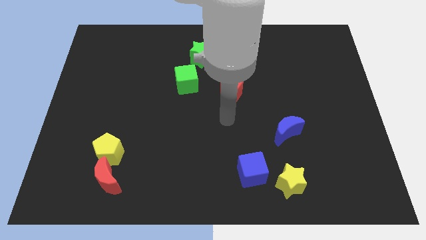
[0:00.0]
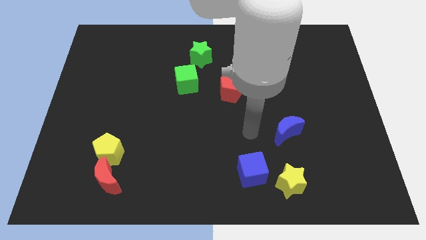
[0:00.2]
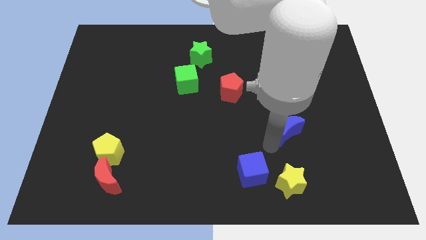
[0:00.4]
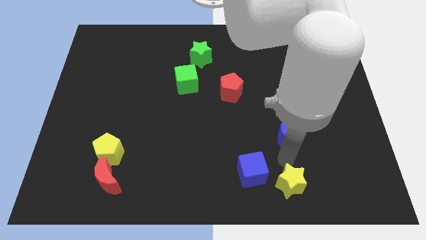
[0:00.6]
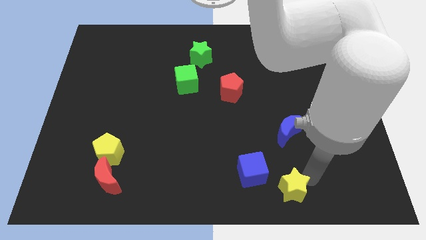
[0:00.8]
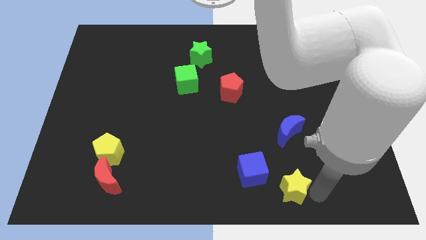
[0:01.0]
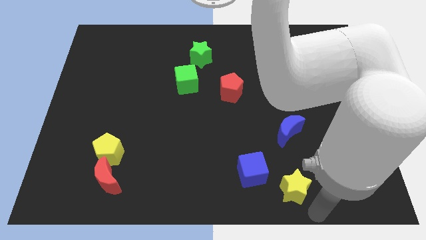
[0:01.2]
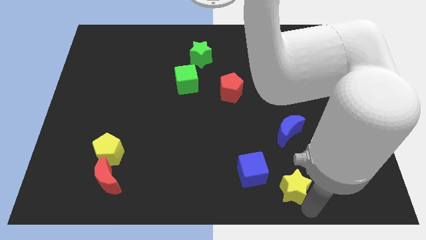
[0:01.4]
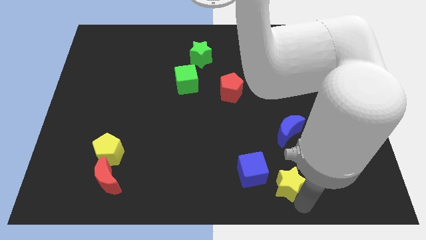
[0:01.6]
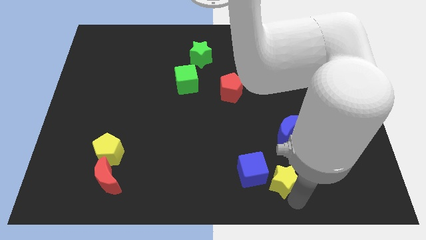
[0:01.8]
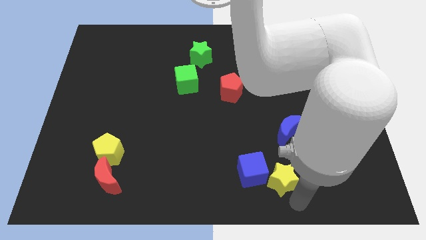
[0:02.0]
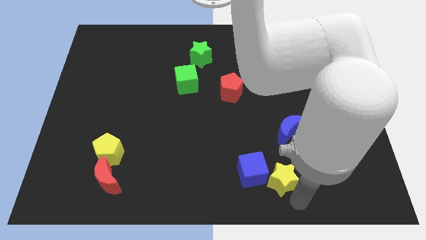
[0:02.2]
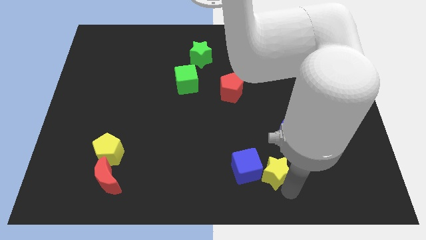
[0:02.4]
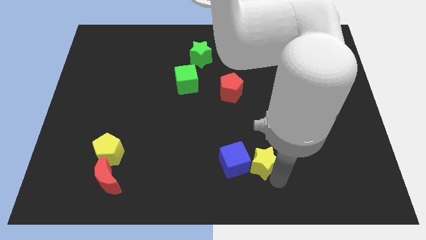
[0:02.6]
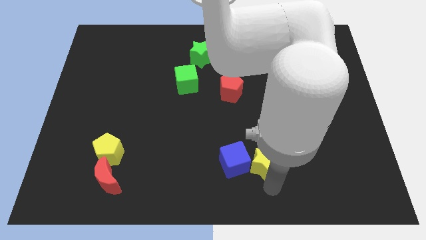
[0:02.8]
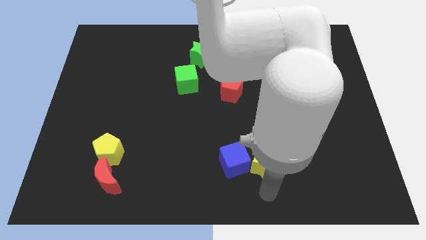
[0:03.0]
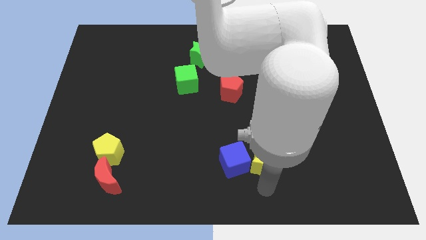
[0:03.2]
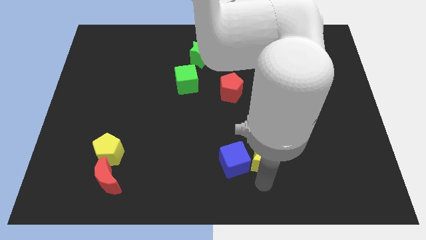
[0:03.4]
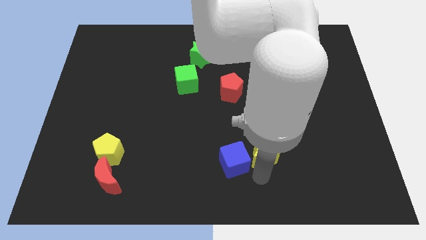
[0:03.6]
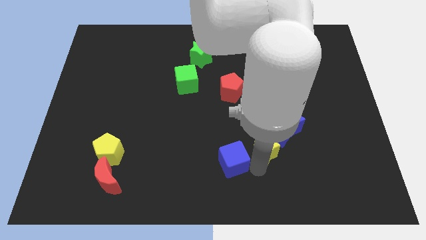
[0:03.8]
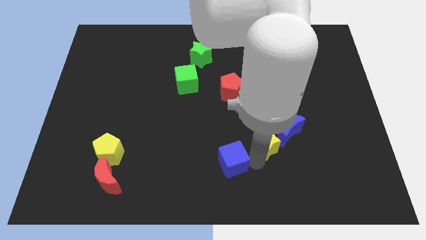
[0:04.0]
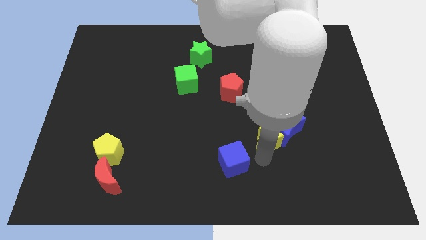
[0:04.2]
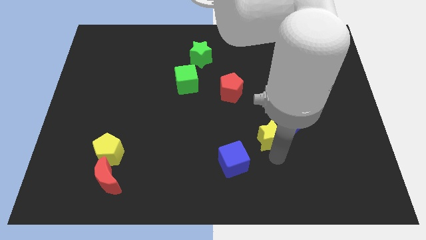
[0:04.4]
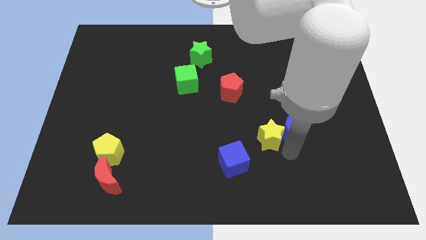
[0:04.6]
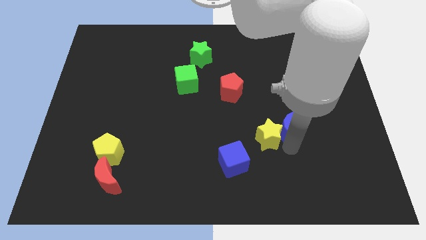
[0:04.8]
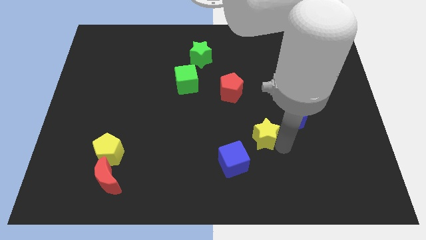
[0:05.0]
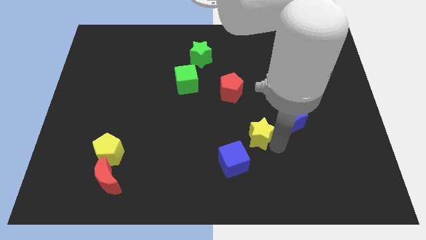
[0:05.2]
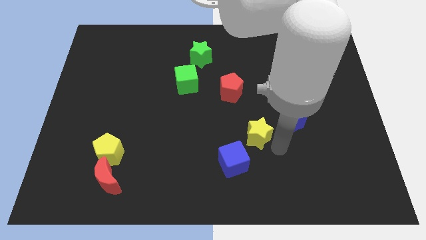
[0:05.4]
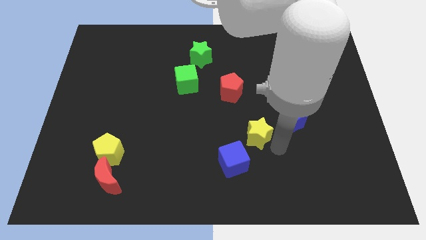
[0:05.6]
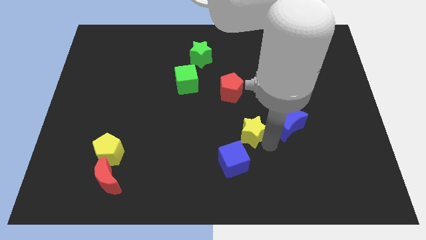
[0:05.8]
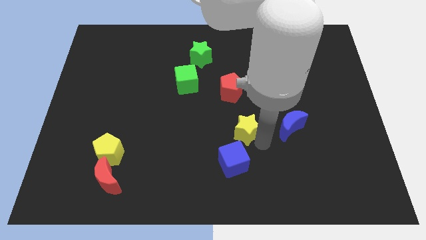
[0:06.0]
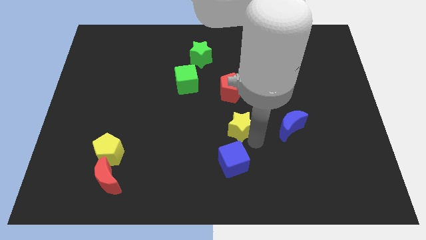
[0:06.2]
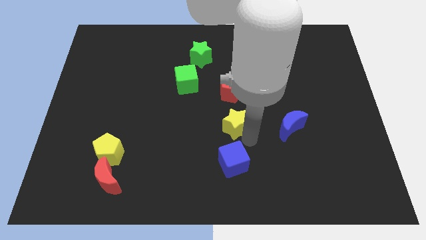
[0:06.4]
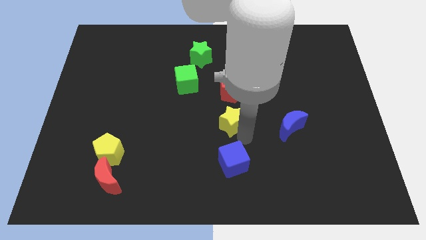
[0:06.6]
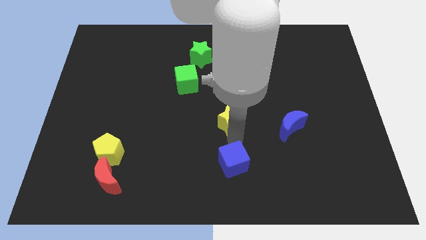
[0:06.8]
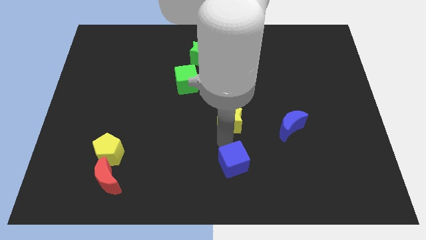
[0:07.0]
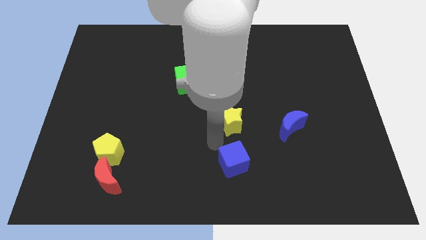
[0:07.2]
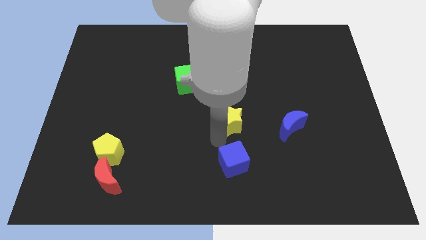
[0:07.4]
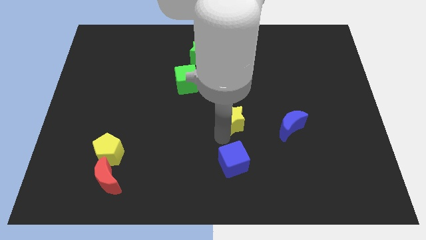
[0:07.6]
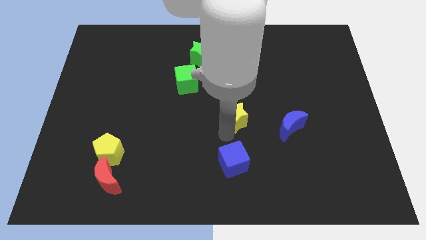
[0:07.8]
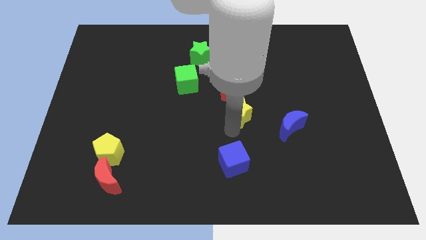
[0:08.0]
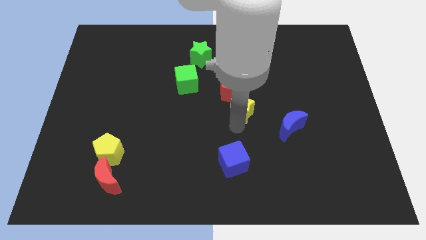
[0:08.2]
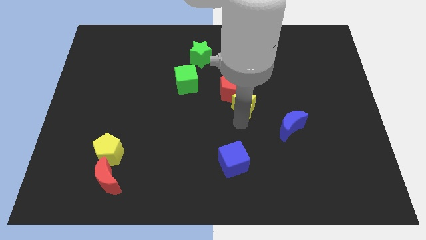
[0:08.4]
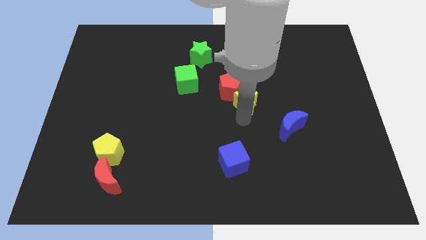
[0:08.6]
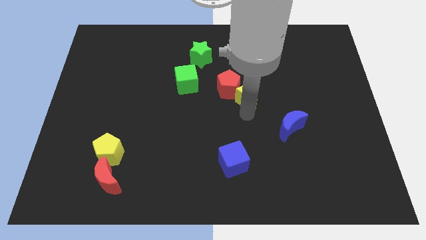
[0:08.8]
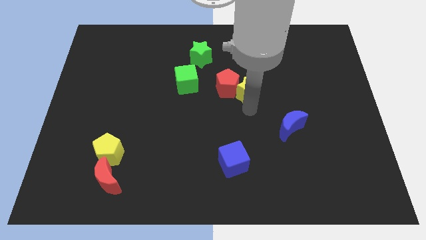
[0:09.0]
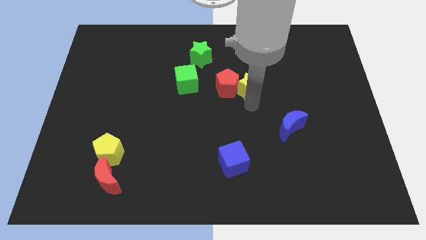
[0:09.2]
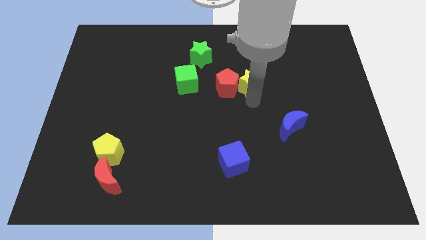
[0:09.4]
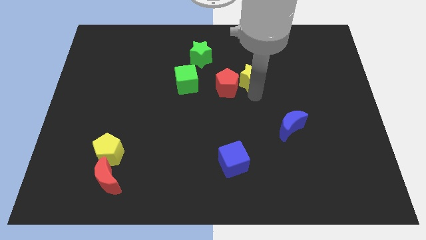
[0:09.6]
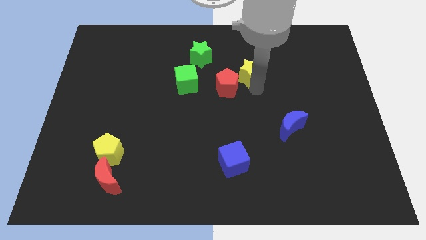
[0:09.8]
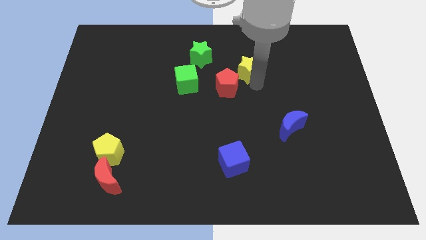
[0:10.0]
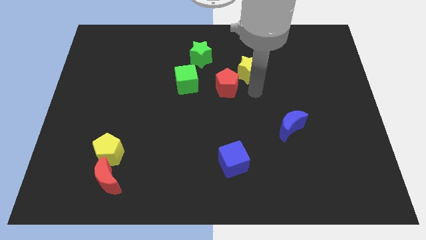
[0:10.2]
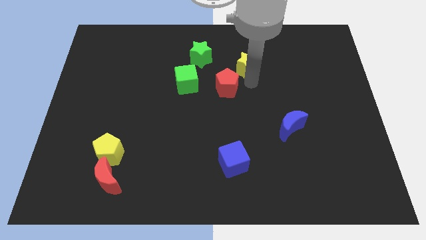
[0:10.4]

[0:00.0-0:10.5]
put the yellow star to the right of the green star

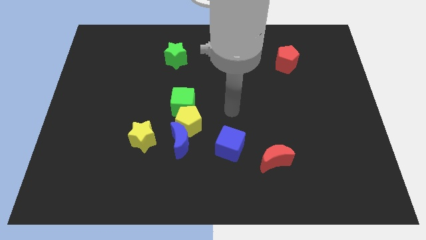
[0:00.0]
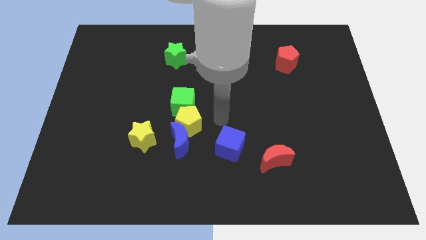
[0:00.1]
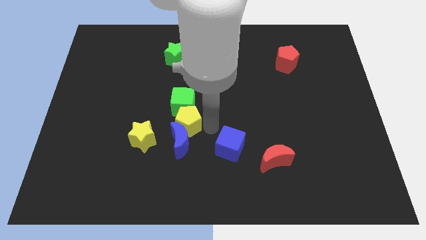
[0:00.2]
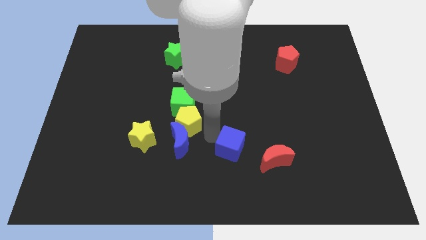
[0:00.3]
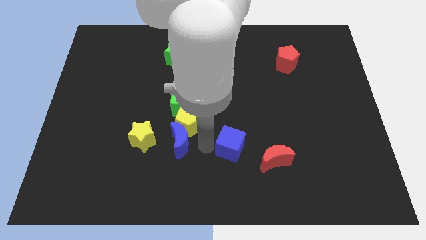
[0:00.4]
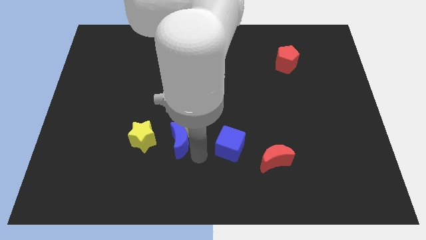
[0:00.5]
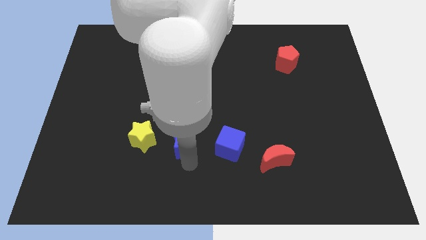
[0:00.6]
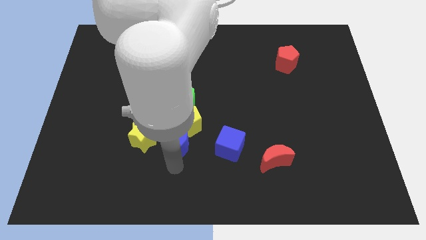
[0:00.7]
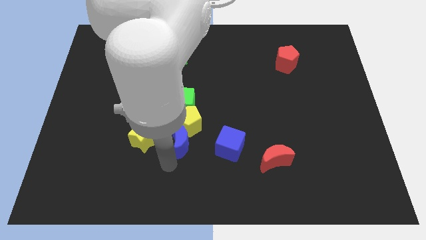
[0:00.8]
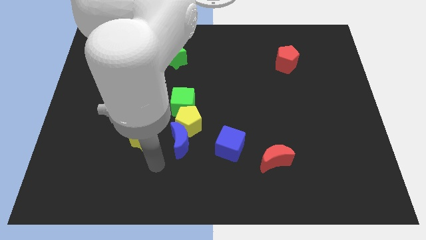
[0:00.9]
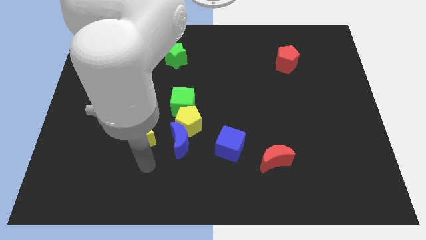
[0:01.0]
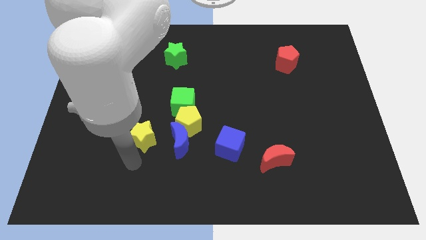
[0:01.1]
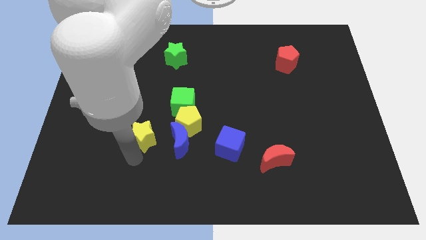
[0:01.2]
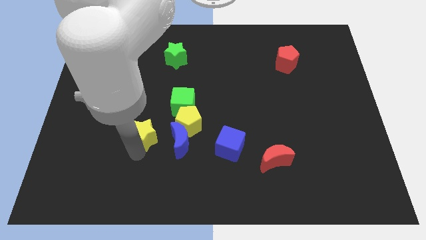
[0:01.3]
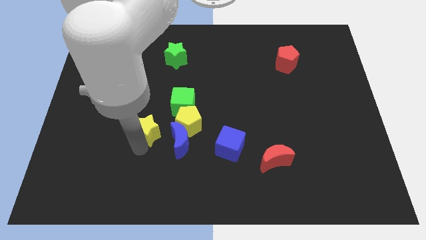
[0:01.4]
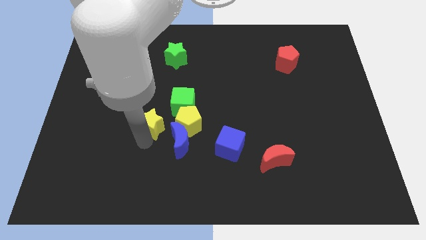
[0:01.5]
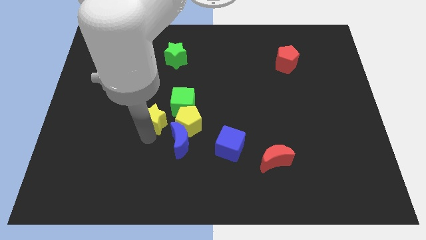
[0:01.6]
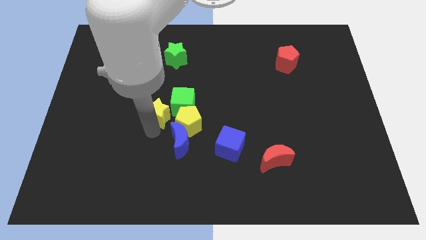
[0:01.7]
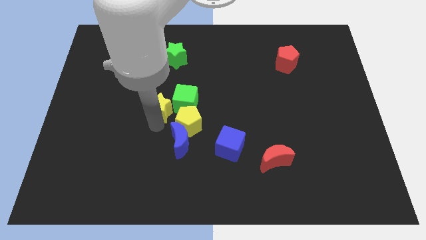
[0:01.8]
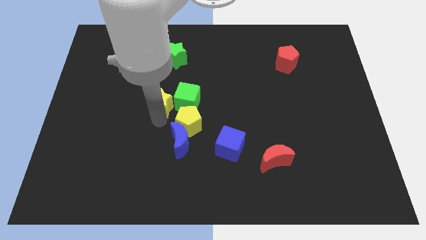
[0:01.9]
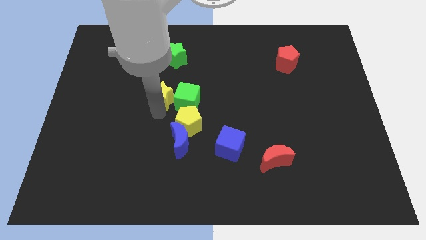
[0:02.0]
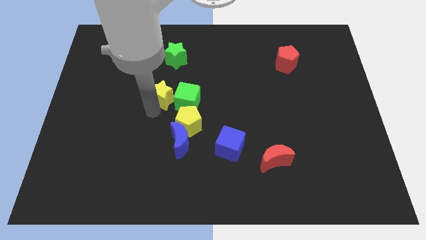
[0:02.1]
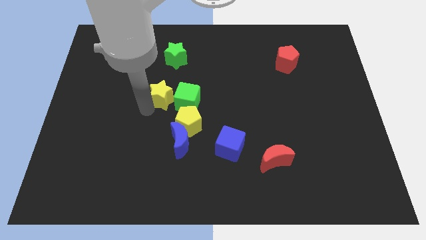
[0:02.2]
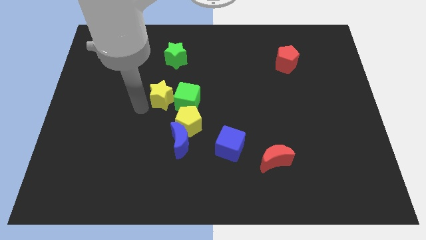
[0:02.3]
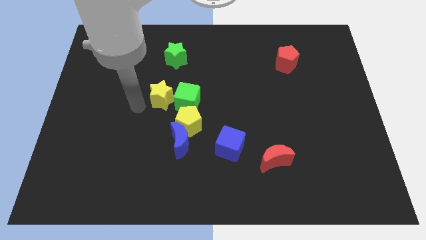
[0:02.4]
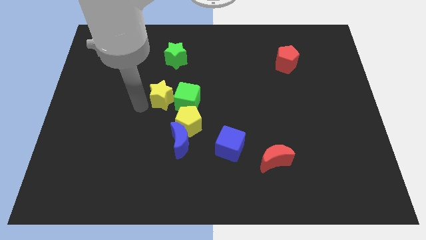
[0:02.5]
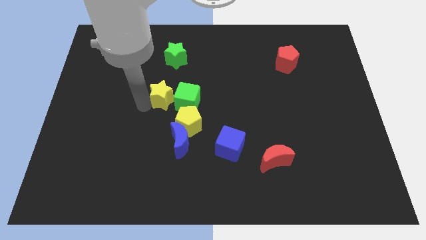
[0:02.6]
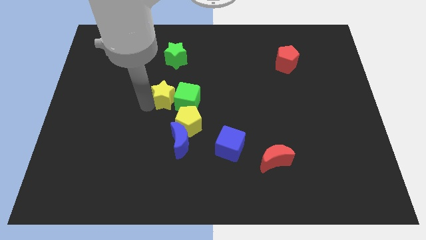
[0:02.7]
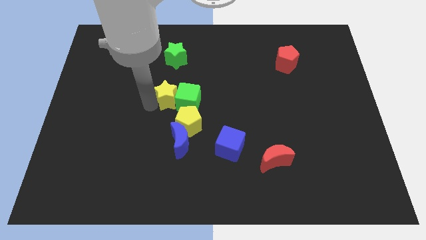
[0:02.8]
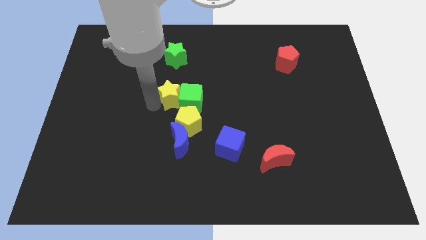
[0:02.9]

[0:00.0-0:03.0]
move the yellow star to the top side of the yellow pentagon
